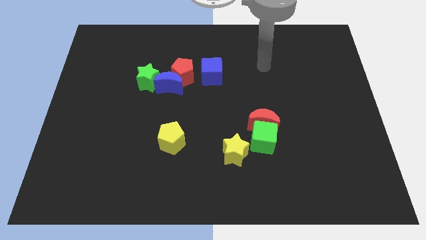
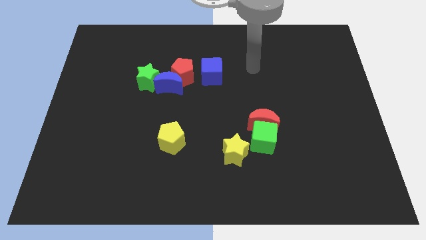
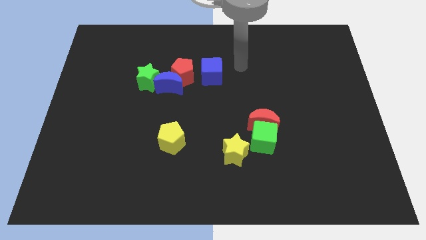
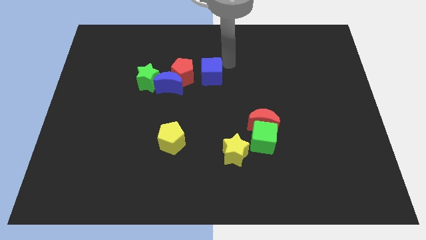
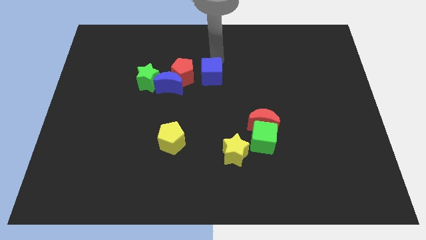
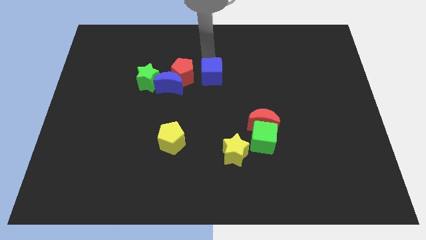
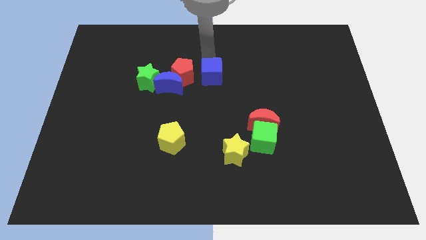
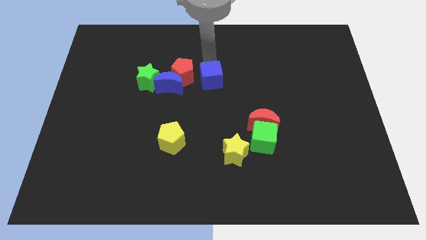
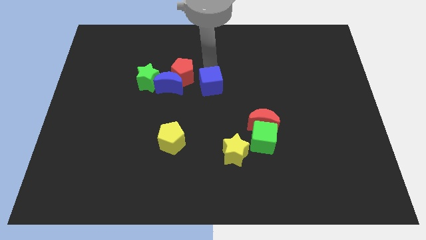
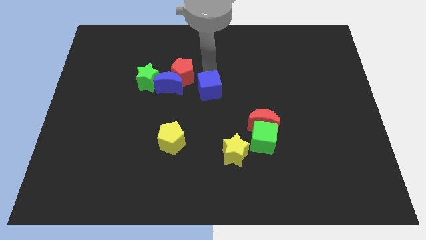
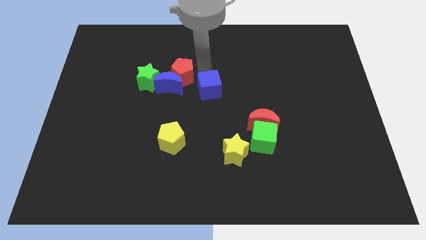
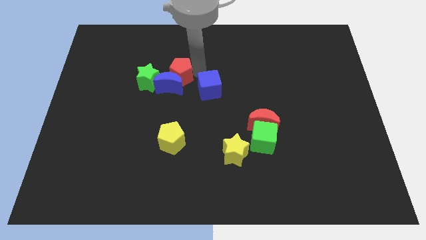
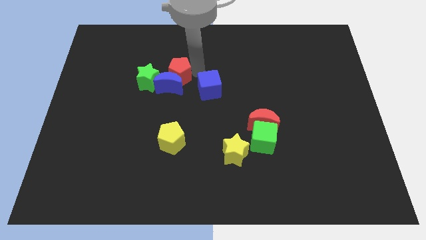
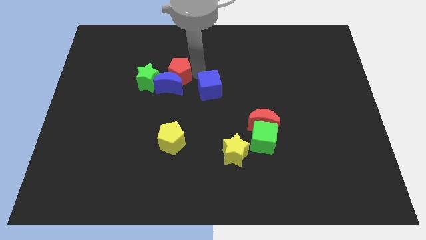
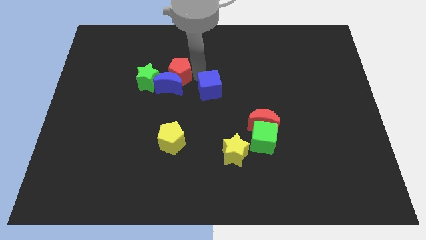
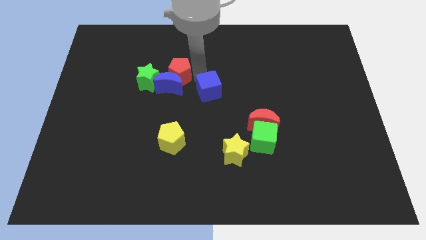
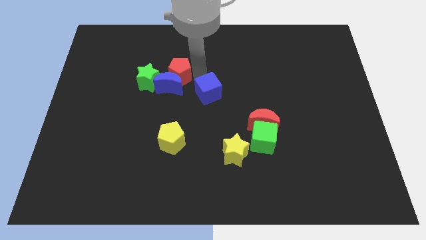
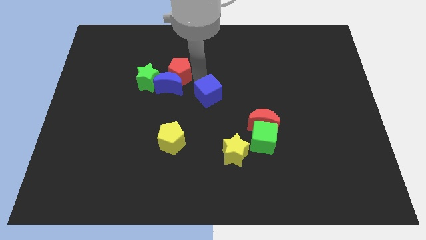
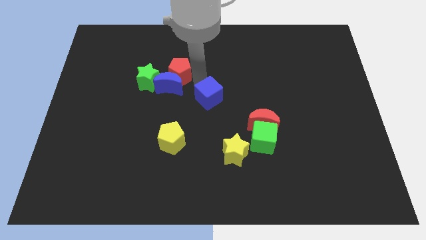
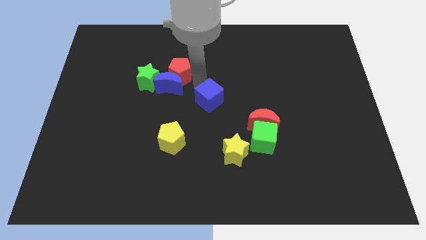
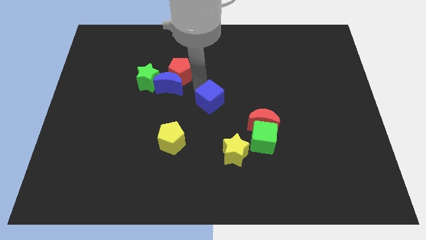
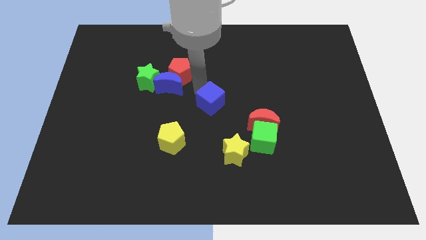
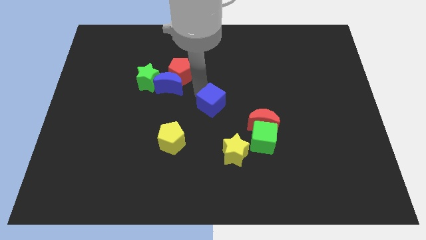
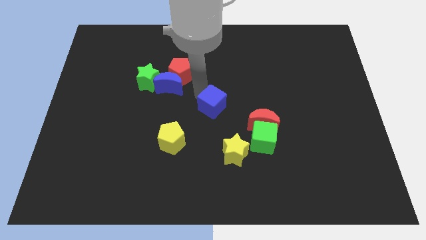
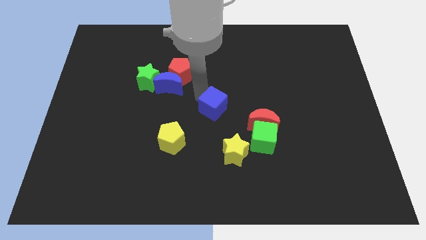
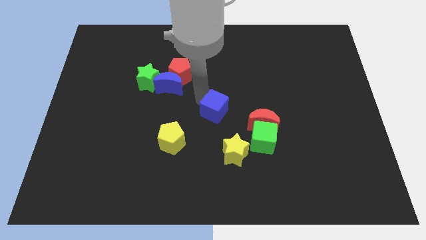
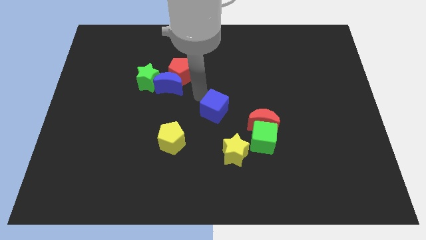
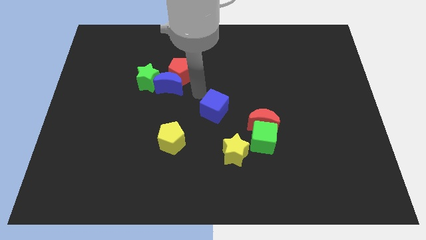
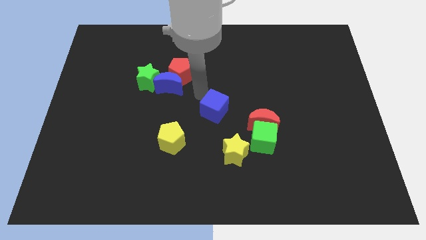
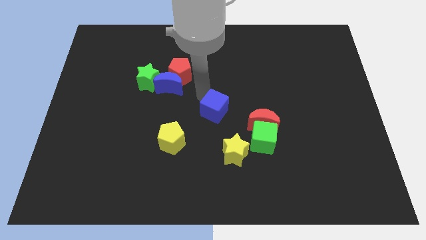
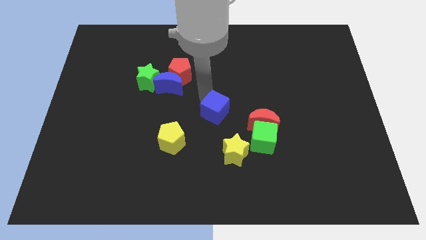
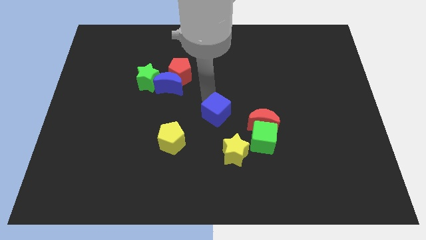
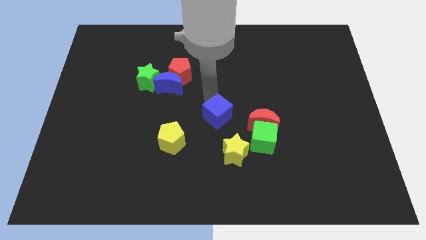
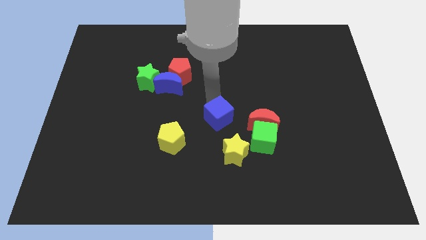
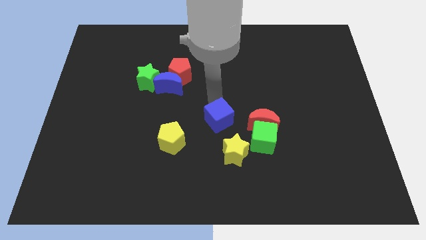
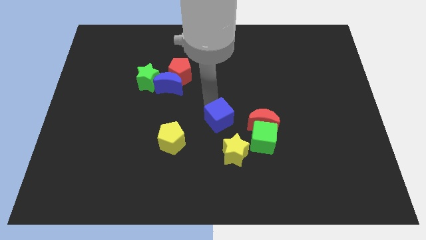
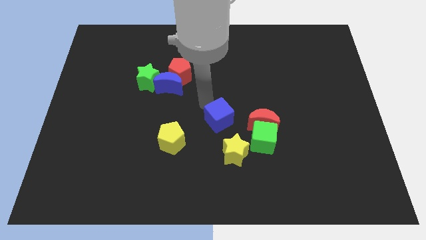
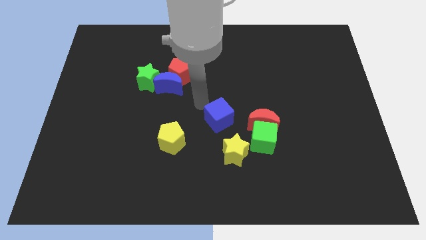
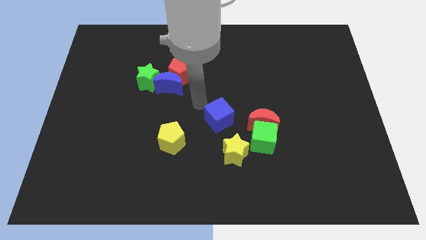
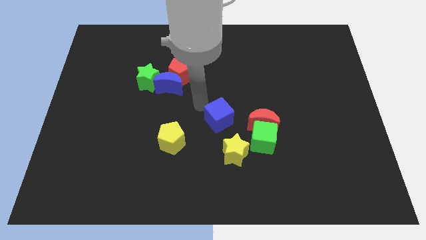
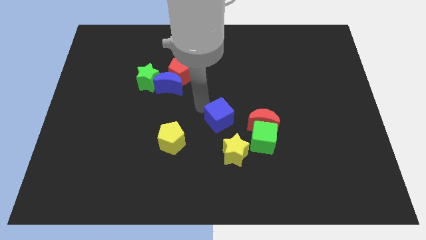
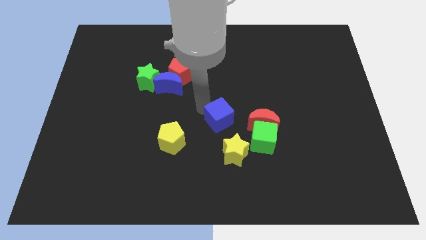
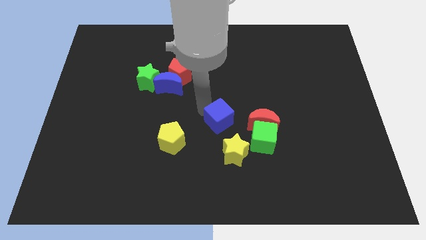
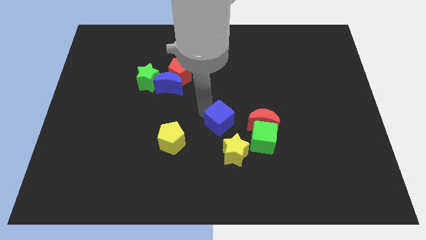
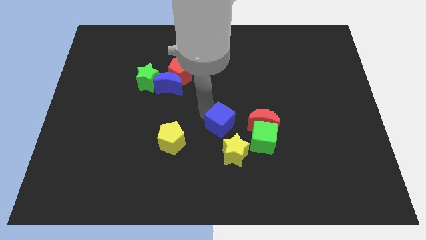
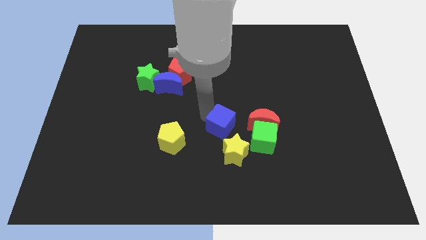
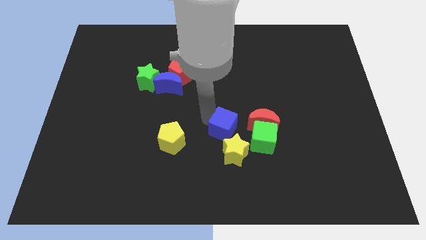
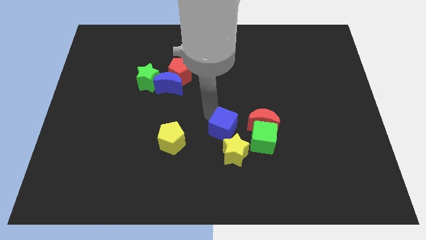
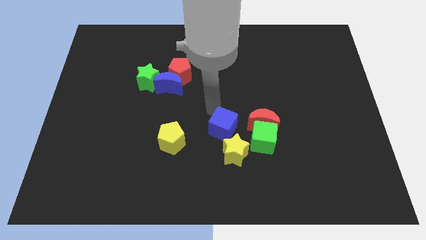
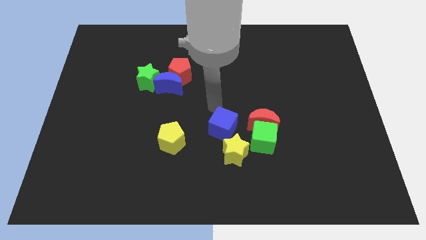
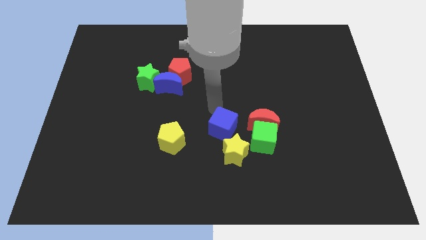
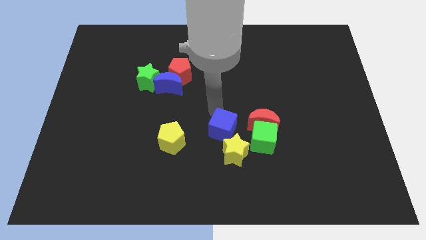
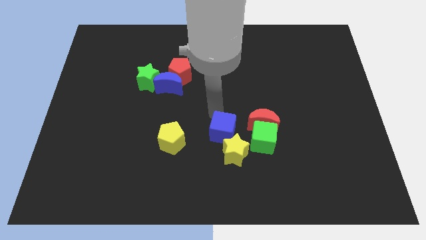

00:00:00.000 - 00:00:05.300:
move the blue cube to the yellow star

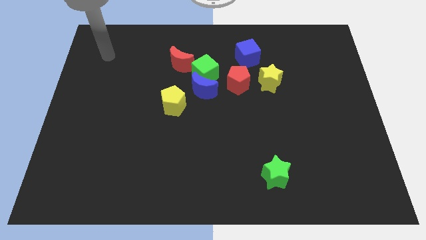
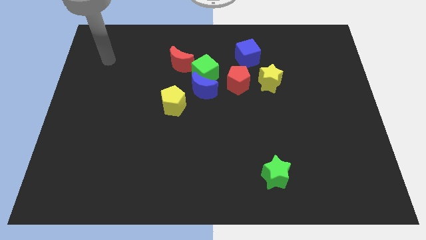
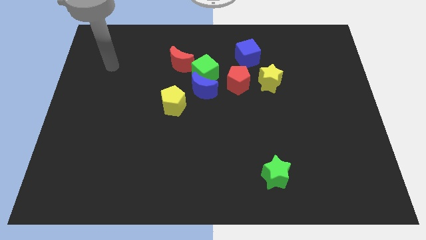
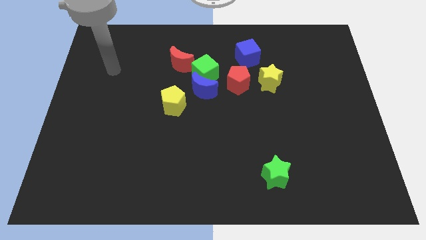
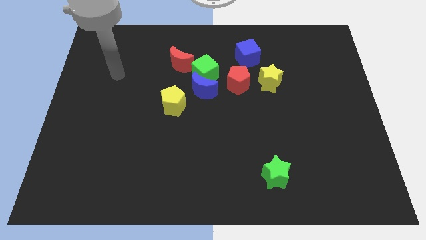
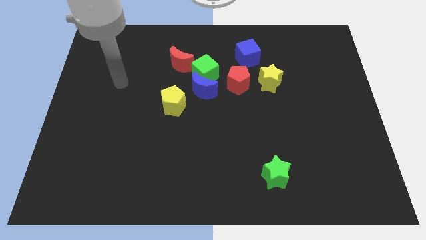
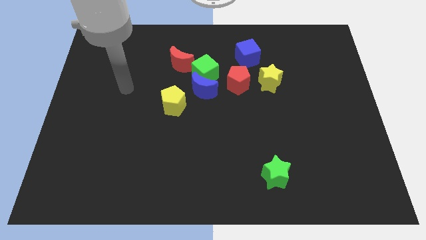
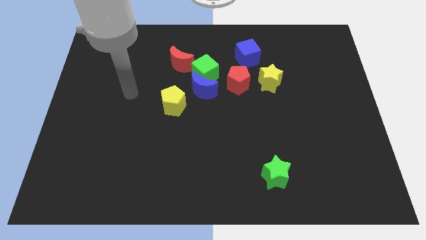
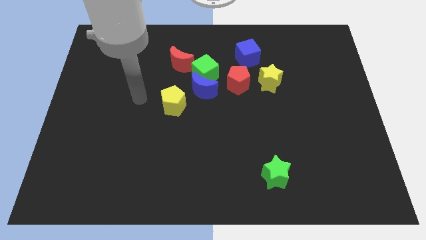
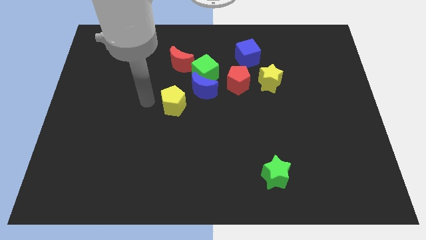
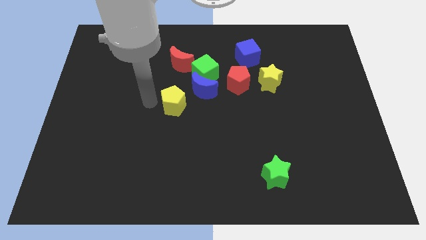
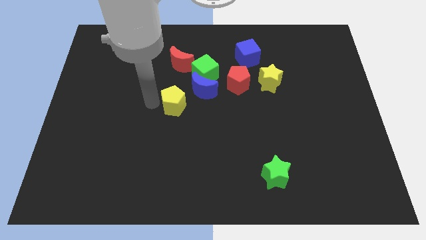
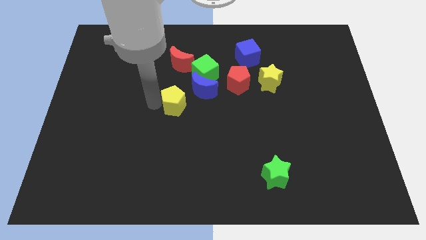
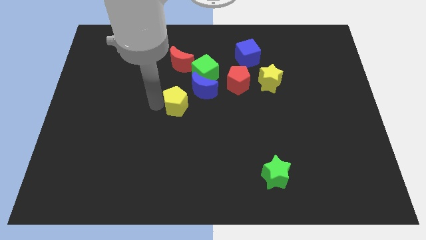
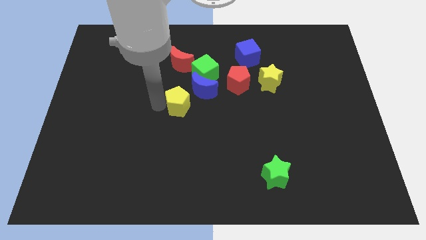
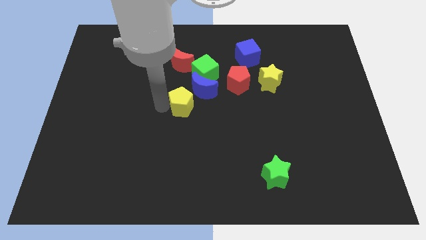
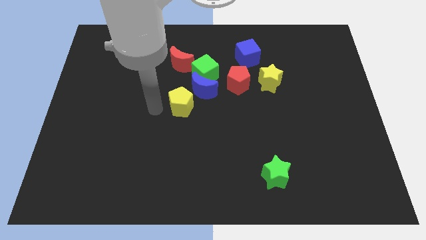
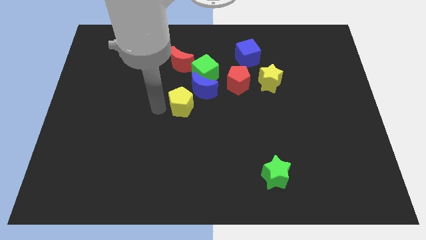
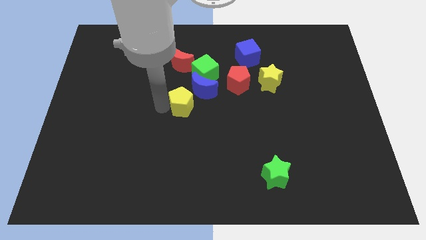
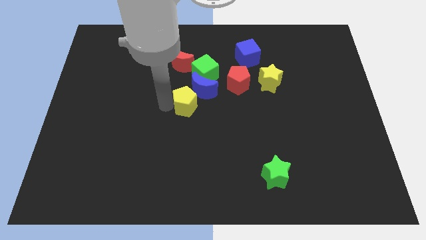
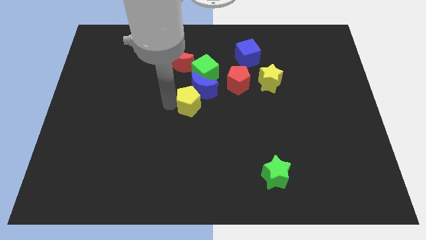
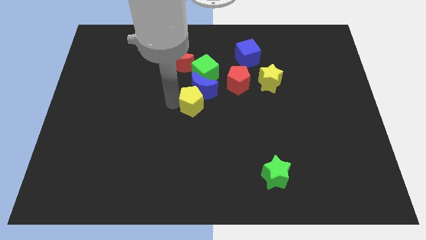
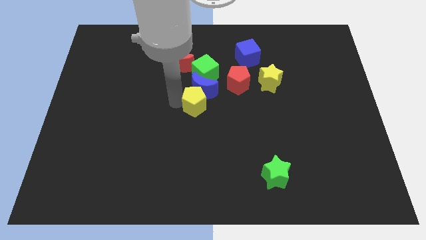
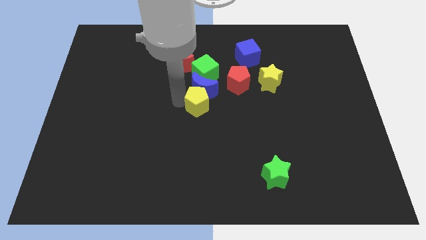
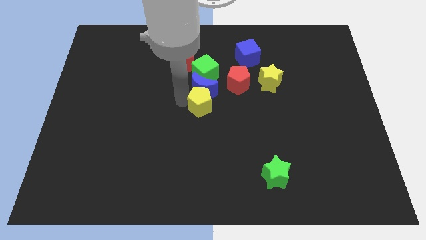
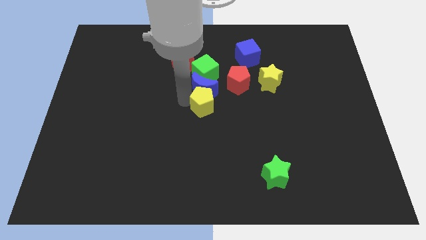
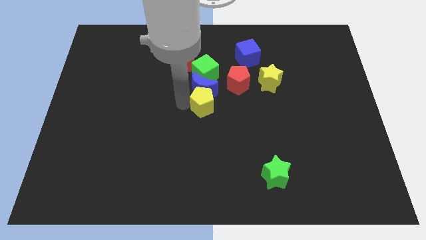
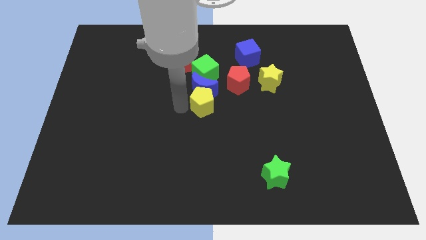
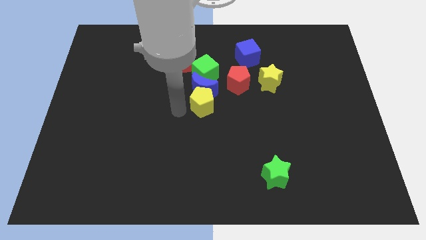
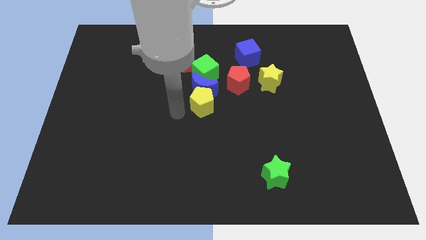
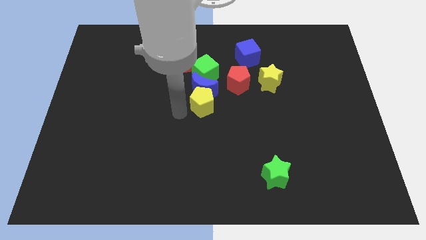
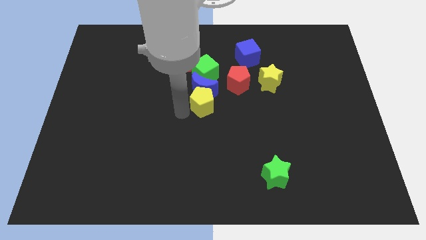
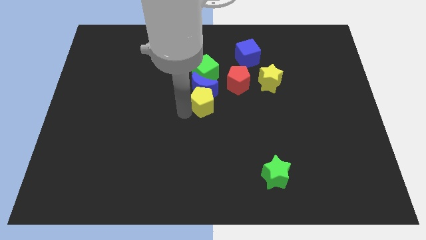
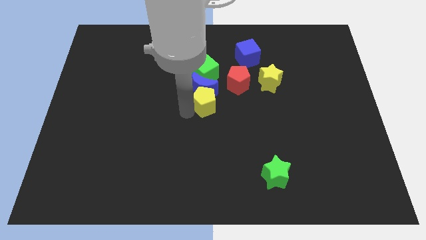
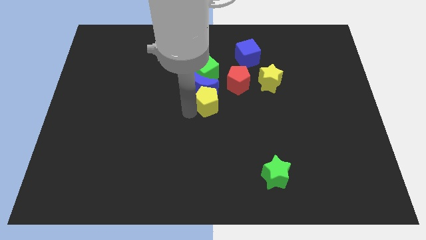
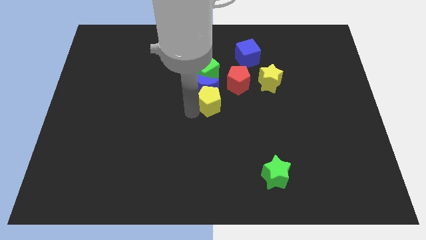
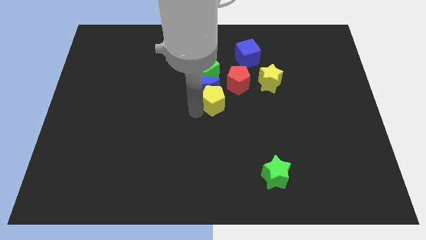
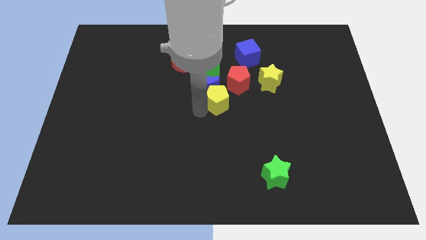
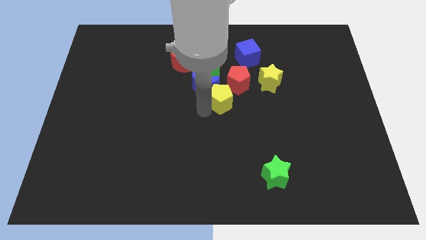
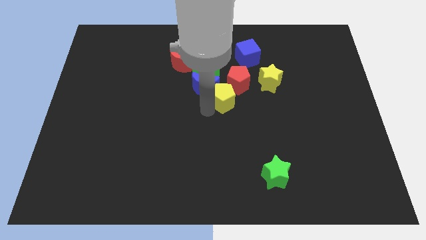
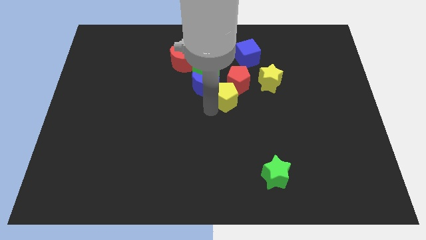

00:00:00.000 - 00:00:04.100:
push the yellow pentagon close to the red pentagon
